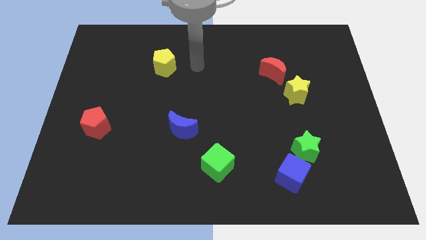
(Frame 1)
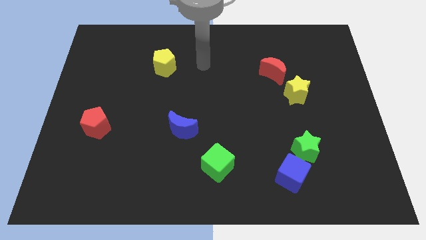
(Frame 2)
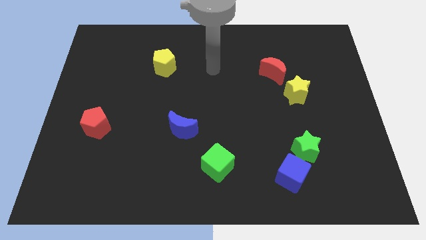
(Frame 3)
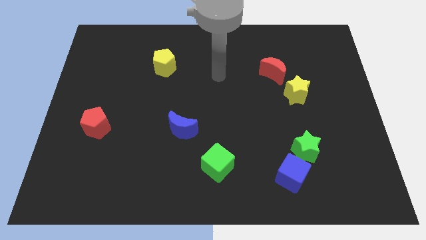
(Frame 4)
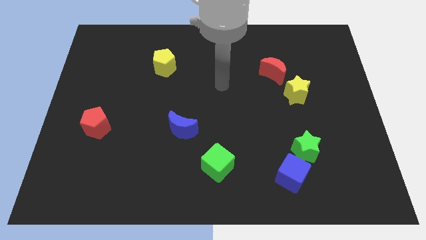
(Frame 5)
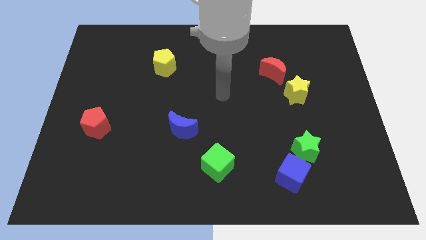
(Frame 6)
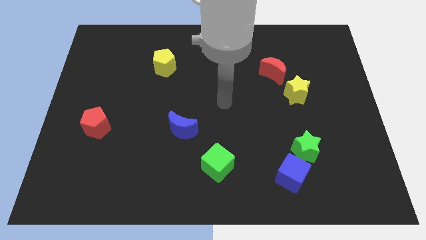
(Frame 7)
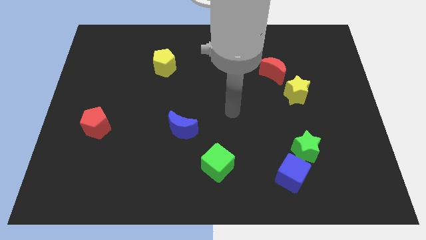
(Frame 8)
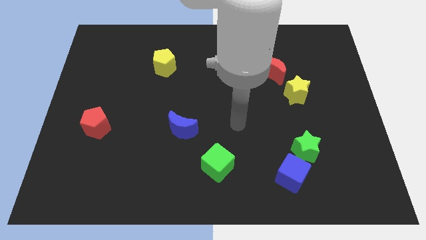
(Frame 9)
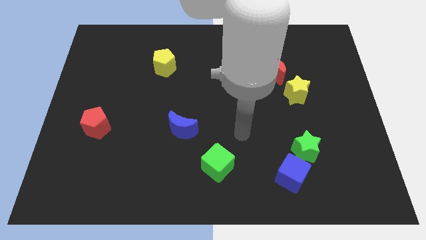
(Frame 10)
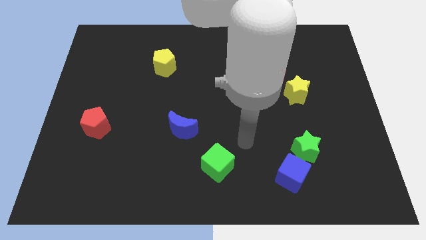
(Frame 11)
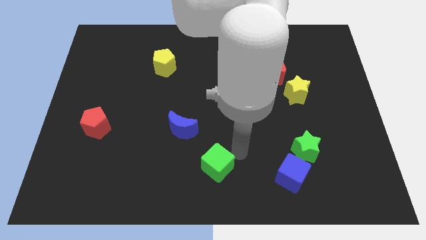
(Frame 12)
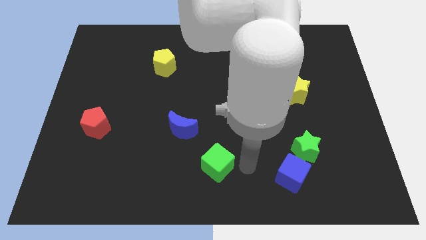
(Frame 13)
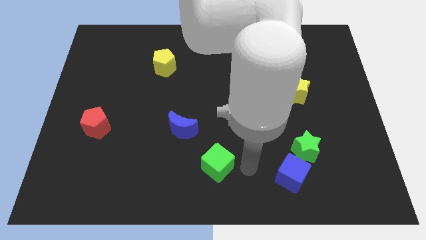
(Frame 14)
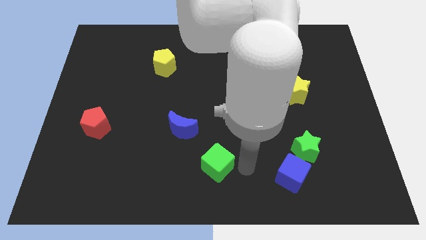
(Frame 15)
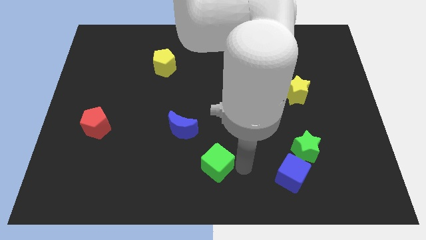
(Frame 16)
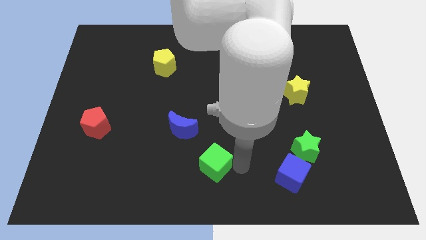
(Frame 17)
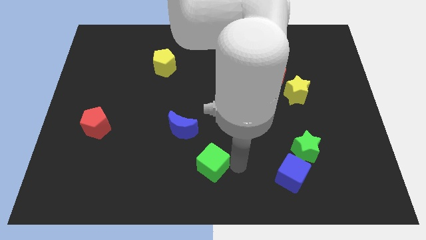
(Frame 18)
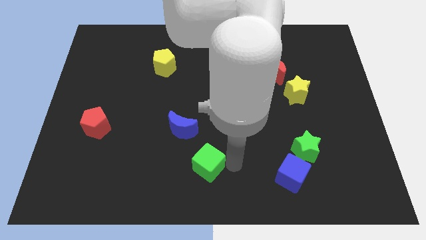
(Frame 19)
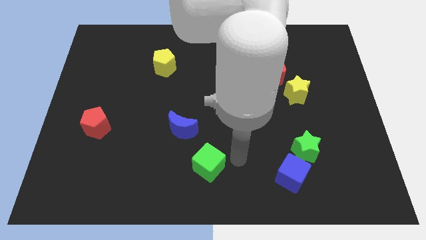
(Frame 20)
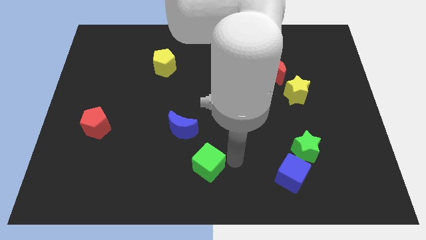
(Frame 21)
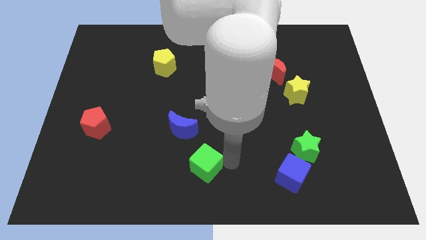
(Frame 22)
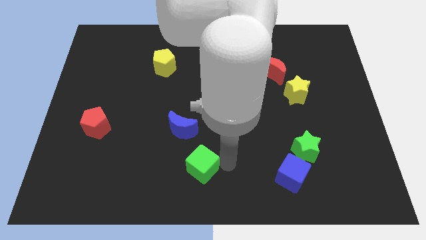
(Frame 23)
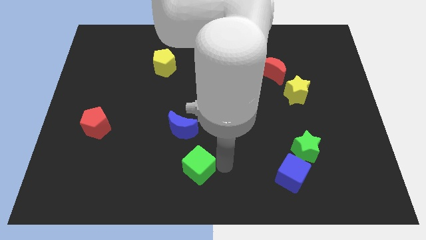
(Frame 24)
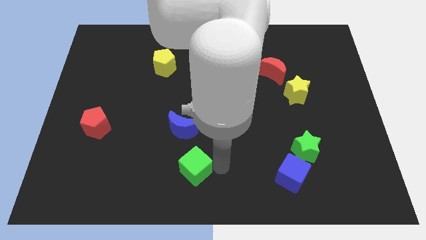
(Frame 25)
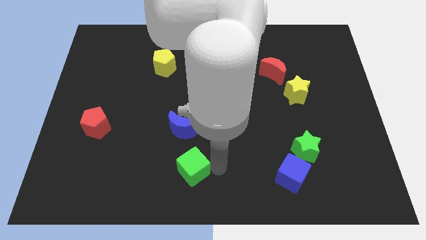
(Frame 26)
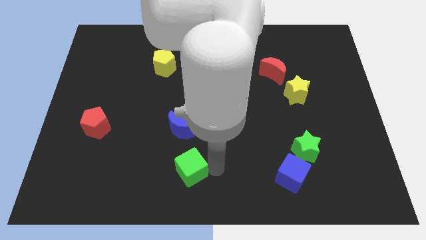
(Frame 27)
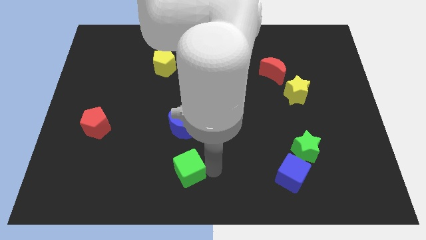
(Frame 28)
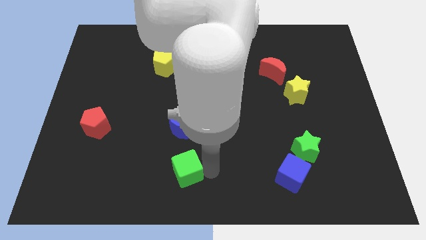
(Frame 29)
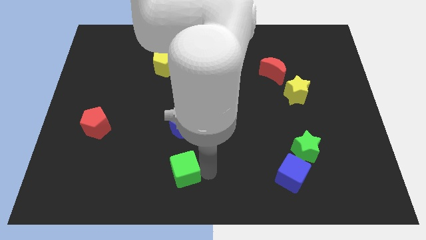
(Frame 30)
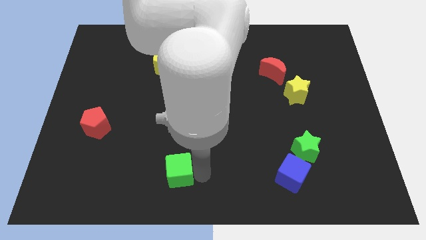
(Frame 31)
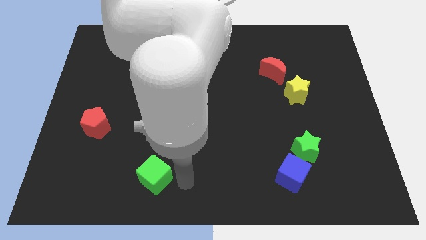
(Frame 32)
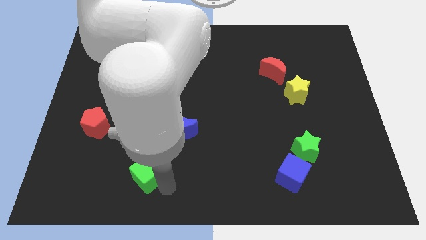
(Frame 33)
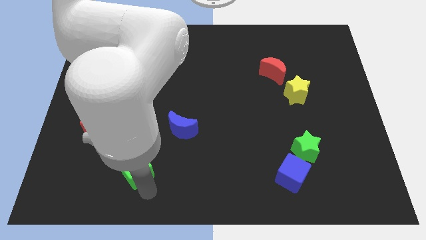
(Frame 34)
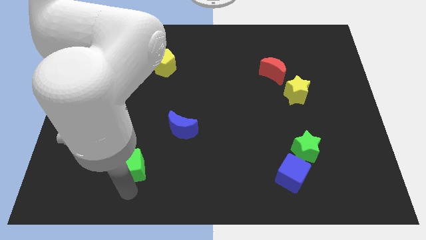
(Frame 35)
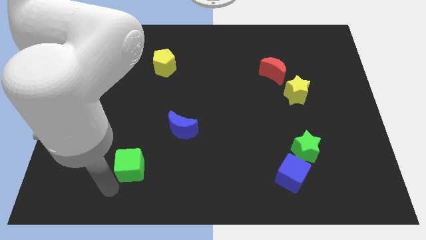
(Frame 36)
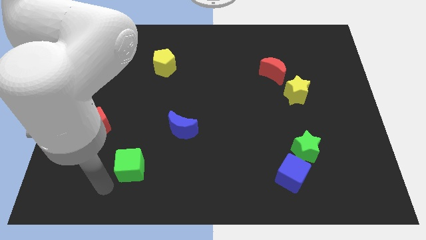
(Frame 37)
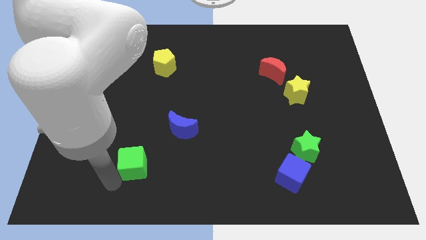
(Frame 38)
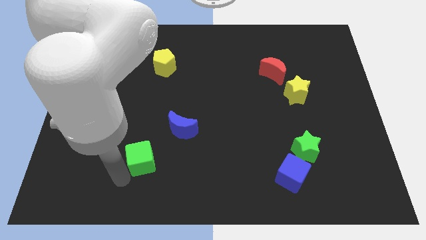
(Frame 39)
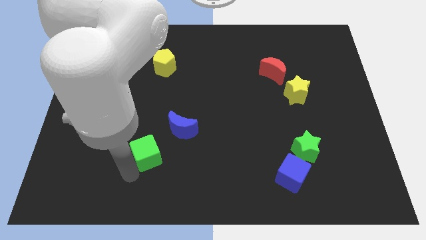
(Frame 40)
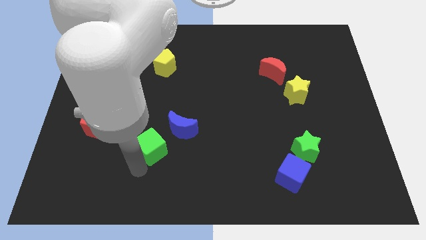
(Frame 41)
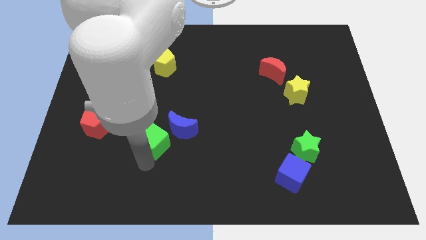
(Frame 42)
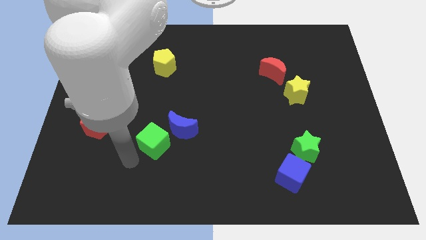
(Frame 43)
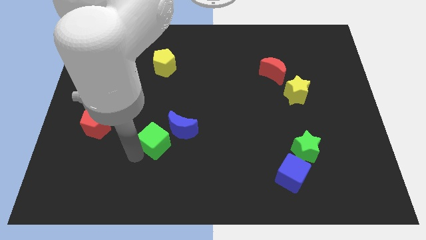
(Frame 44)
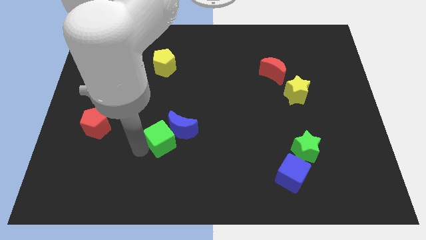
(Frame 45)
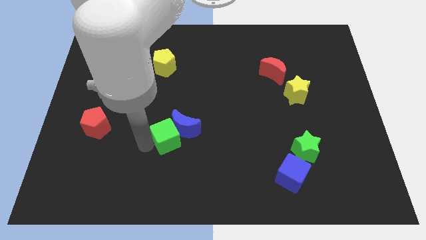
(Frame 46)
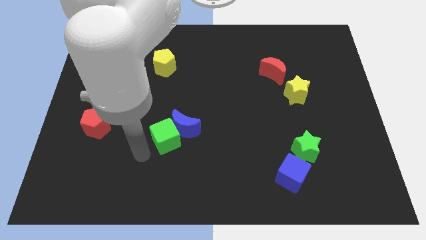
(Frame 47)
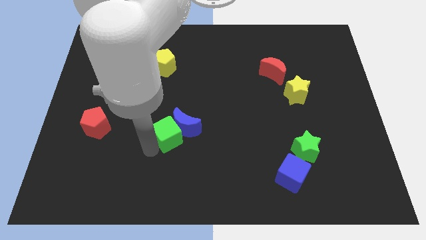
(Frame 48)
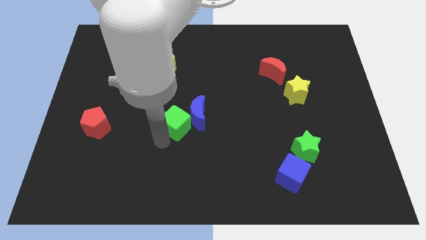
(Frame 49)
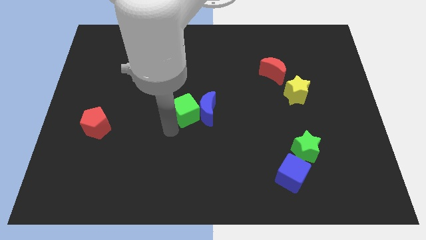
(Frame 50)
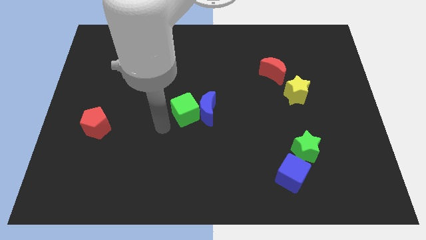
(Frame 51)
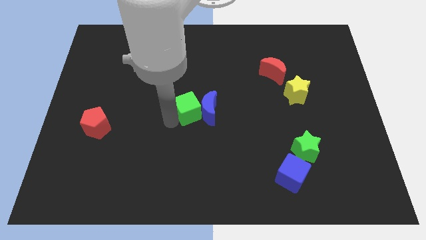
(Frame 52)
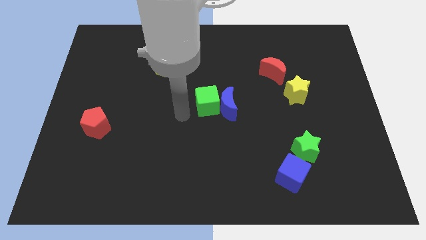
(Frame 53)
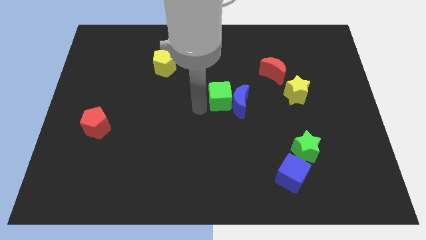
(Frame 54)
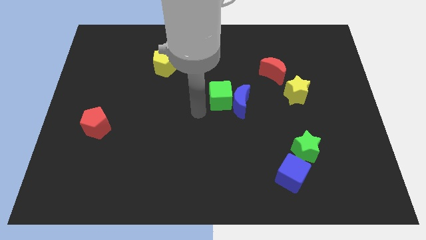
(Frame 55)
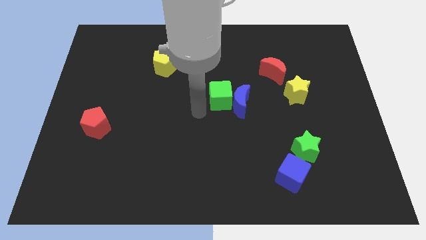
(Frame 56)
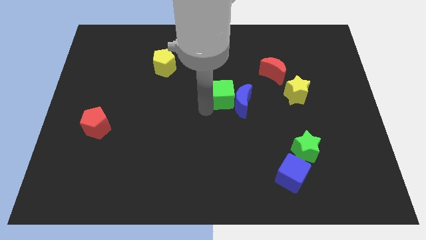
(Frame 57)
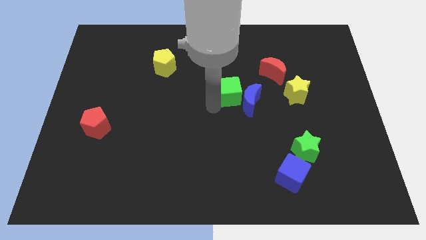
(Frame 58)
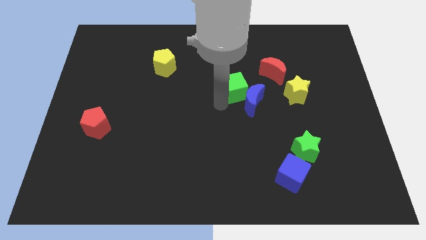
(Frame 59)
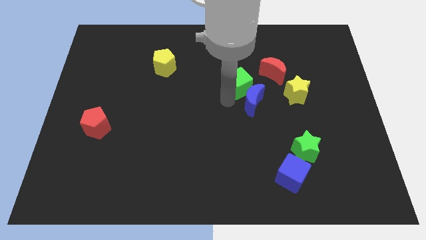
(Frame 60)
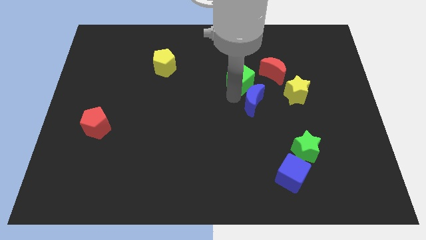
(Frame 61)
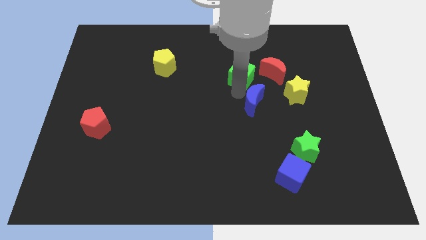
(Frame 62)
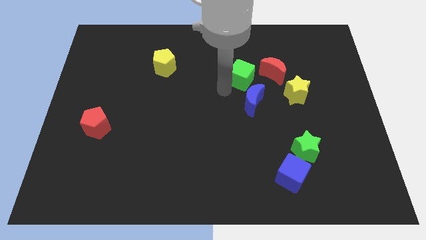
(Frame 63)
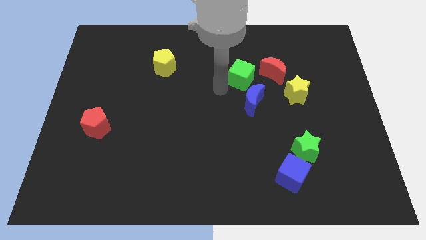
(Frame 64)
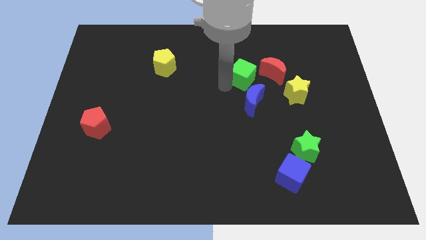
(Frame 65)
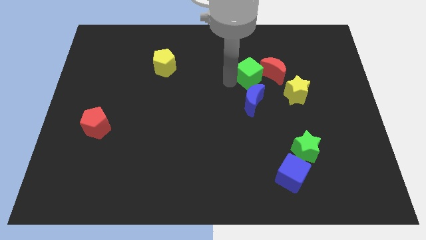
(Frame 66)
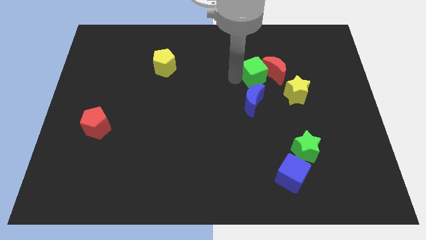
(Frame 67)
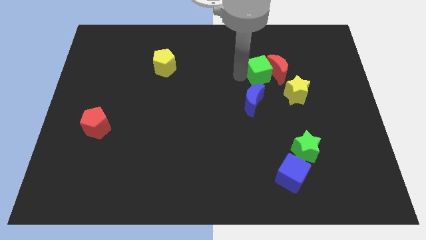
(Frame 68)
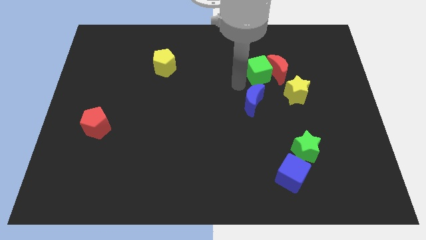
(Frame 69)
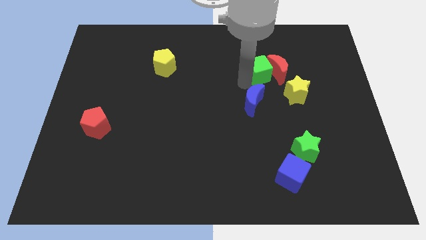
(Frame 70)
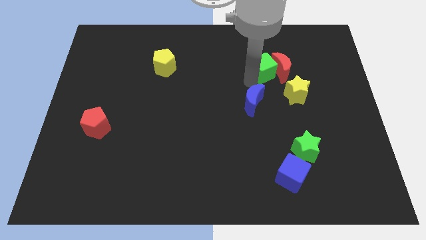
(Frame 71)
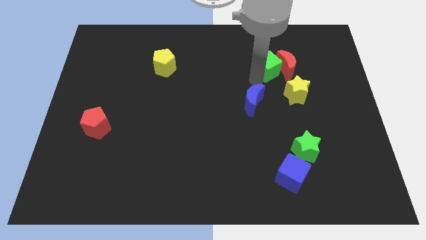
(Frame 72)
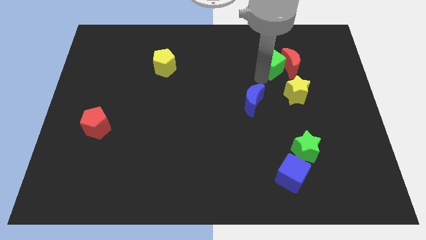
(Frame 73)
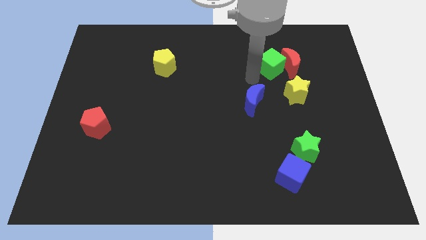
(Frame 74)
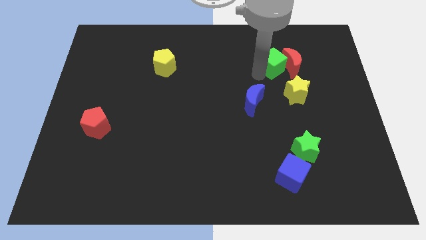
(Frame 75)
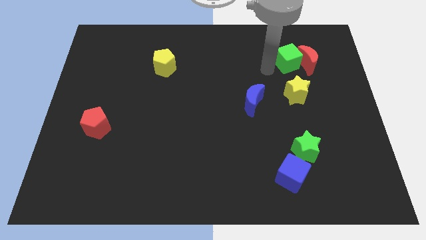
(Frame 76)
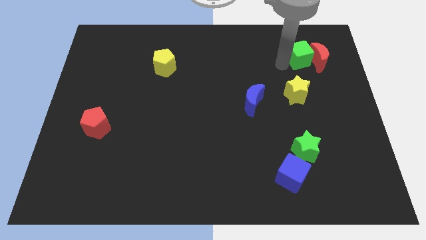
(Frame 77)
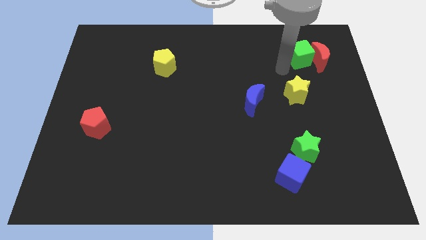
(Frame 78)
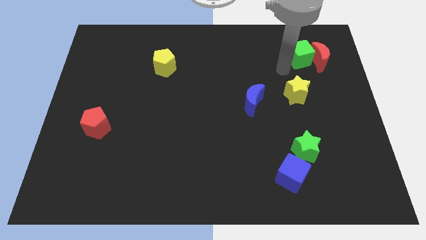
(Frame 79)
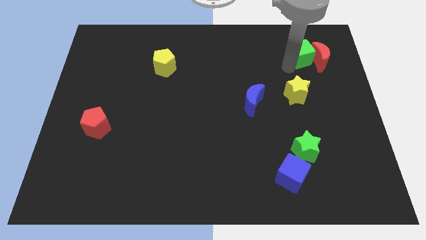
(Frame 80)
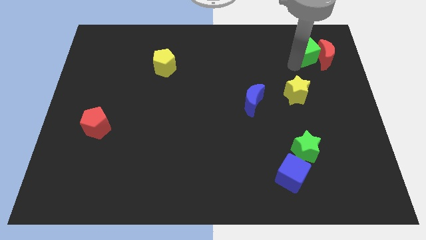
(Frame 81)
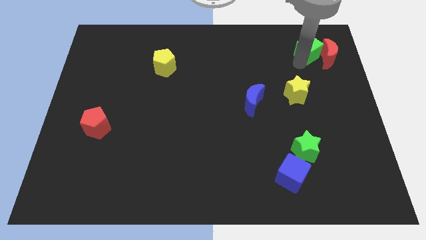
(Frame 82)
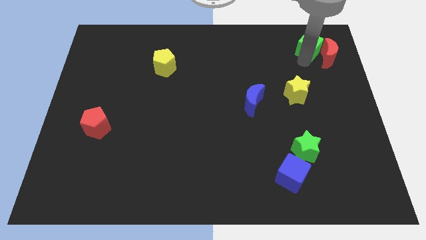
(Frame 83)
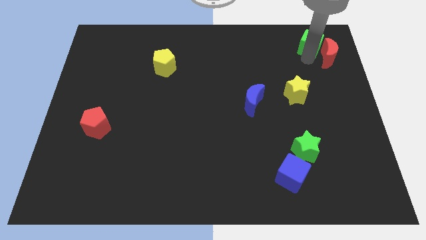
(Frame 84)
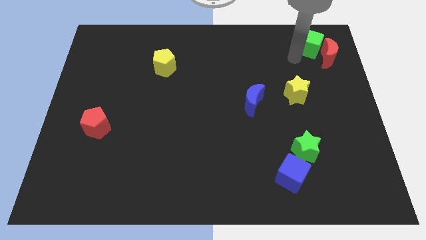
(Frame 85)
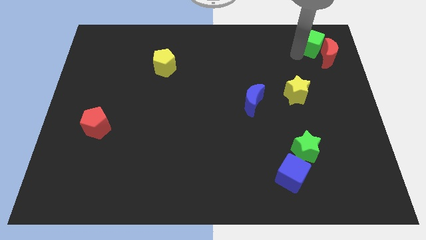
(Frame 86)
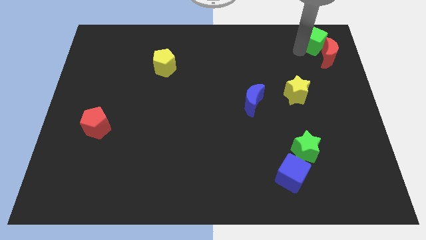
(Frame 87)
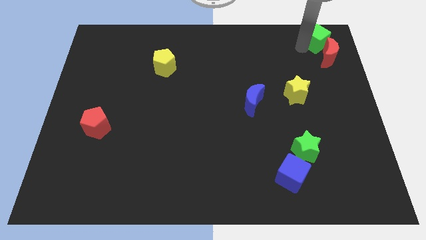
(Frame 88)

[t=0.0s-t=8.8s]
put the green cube to the top right
